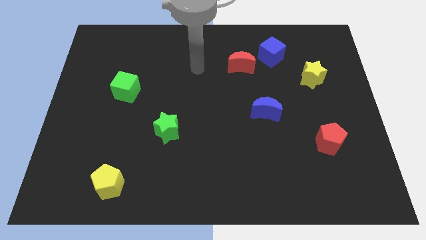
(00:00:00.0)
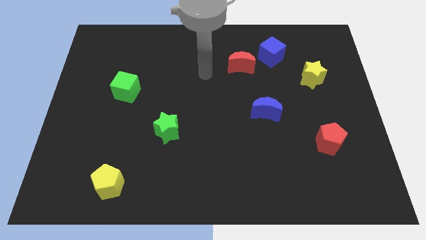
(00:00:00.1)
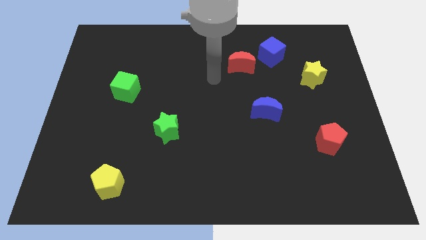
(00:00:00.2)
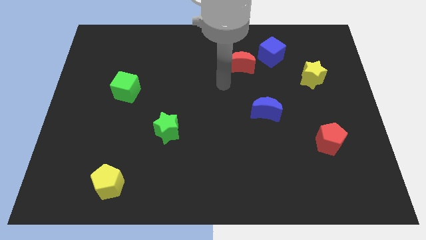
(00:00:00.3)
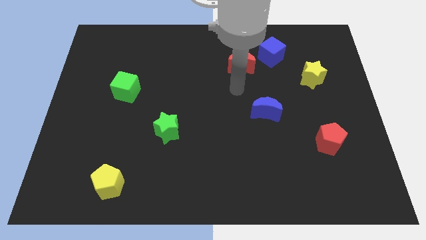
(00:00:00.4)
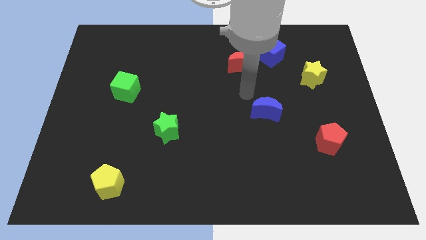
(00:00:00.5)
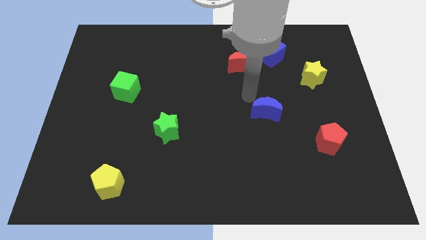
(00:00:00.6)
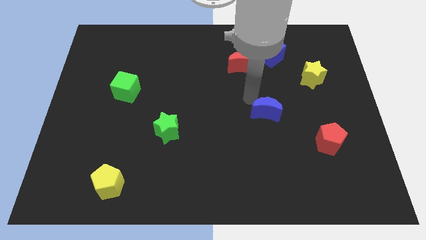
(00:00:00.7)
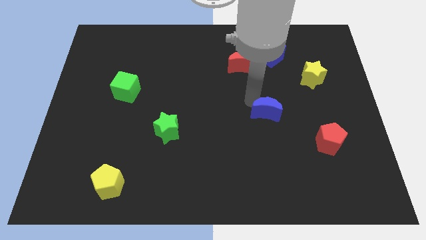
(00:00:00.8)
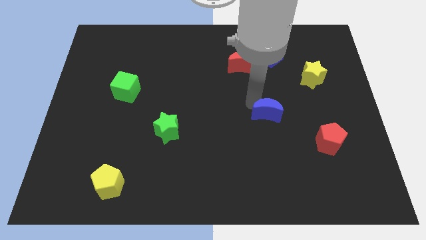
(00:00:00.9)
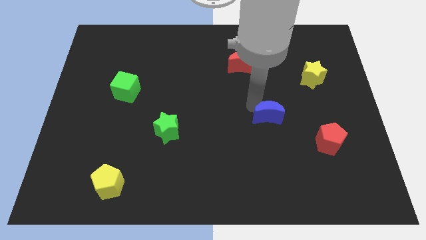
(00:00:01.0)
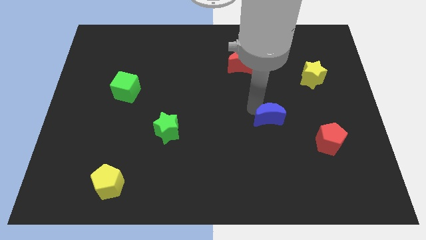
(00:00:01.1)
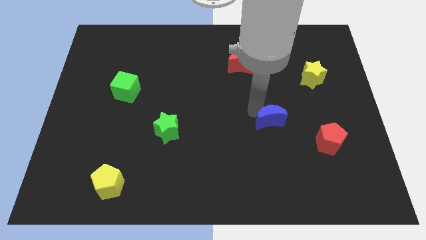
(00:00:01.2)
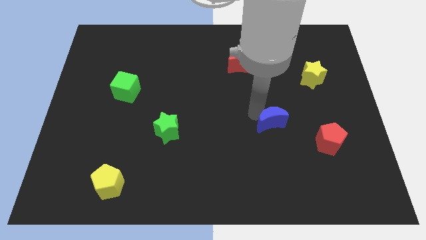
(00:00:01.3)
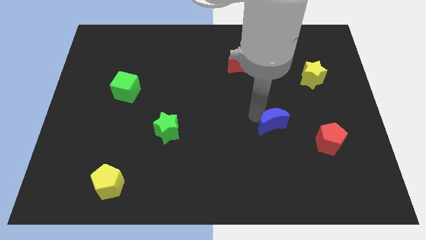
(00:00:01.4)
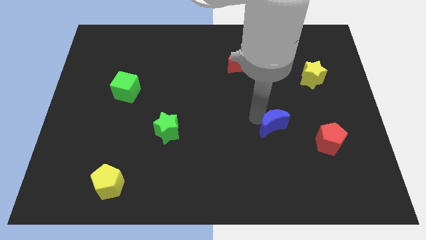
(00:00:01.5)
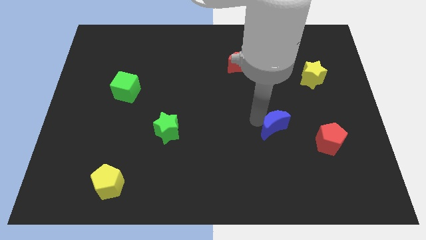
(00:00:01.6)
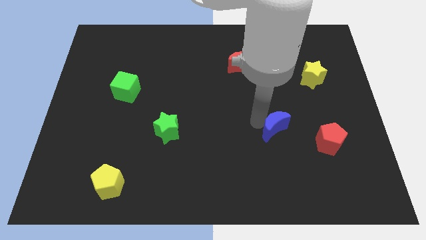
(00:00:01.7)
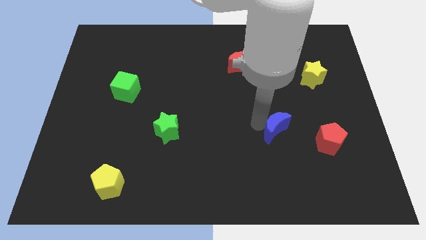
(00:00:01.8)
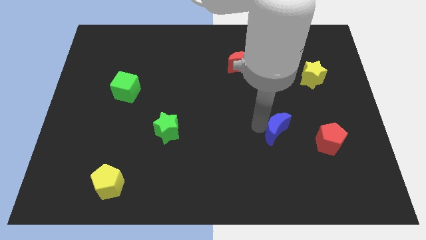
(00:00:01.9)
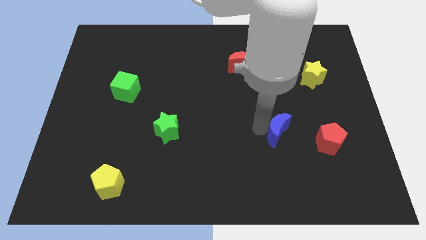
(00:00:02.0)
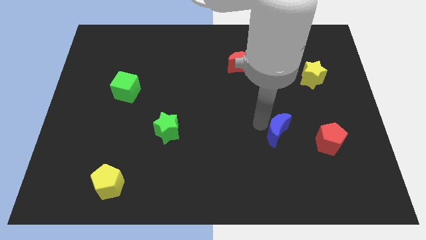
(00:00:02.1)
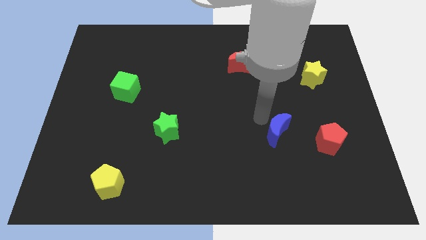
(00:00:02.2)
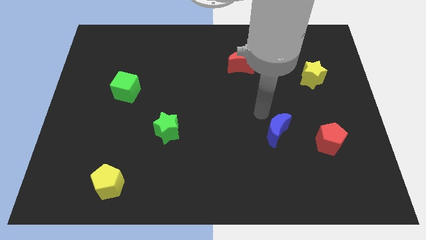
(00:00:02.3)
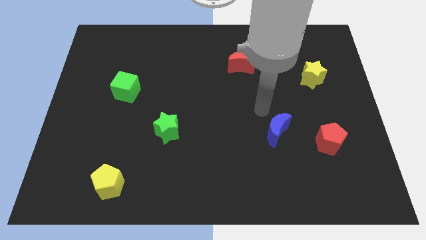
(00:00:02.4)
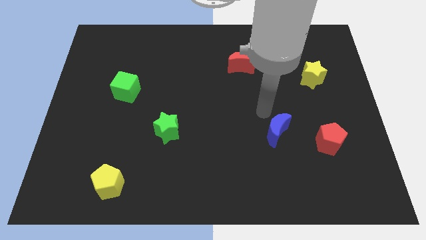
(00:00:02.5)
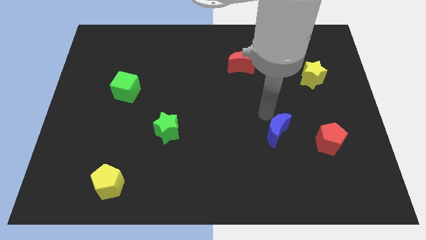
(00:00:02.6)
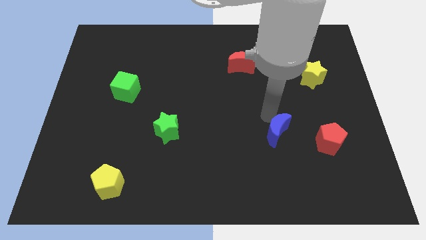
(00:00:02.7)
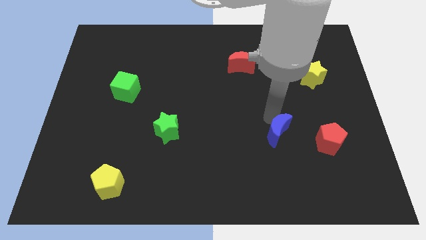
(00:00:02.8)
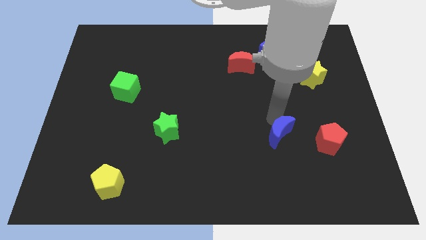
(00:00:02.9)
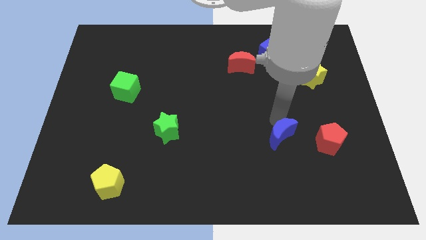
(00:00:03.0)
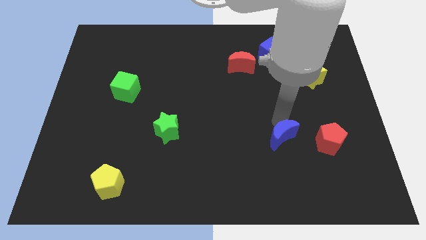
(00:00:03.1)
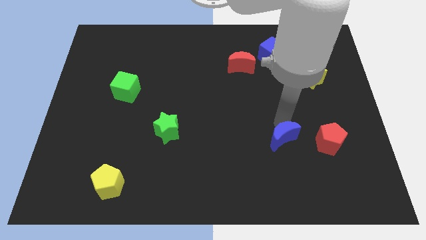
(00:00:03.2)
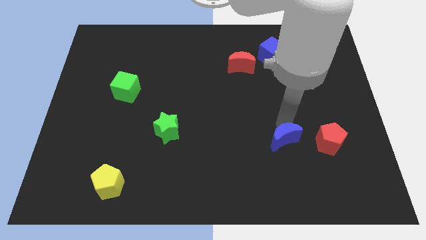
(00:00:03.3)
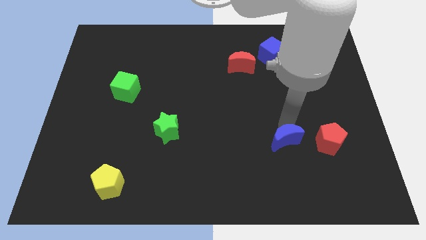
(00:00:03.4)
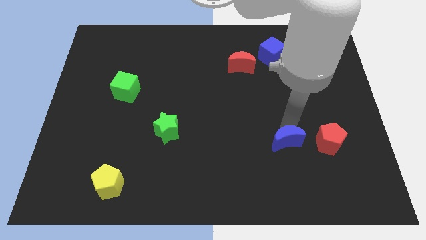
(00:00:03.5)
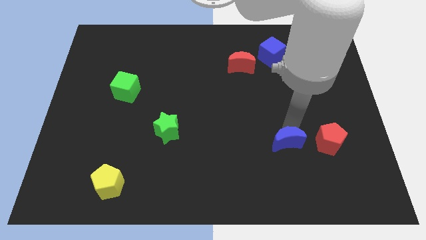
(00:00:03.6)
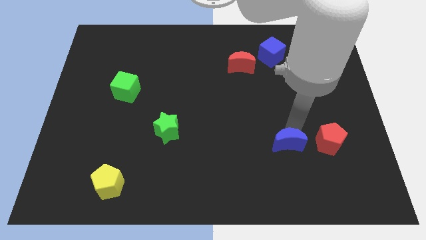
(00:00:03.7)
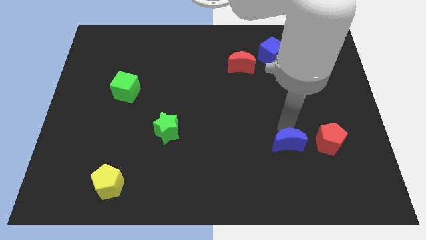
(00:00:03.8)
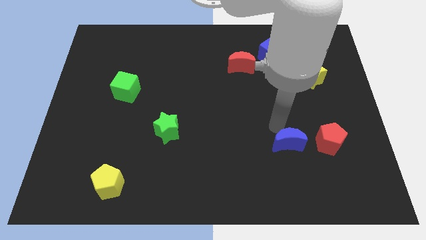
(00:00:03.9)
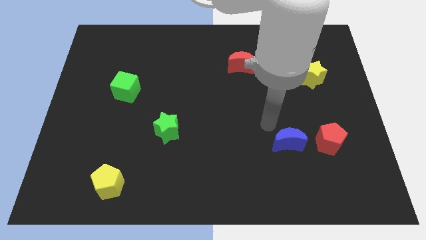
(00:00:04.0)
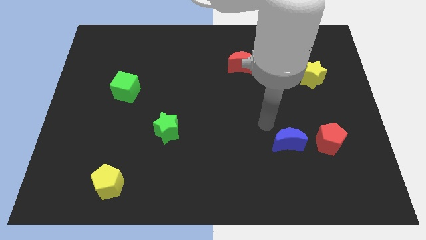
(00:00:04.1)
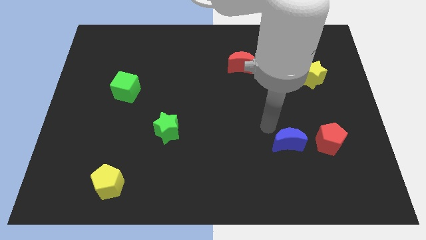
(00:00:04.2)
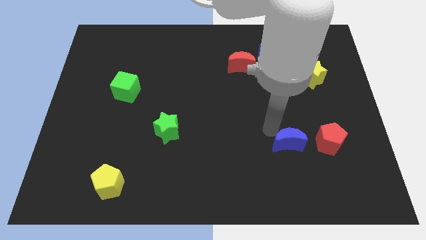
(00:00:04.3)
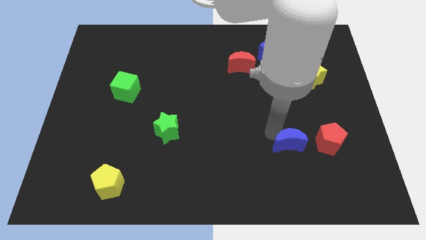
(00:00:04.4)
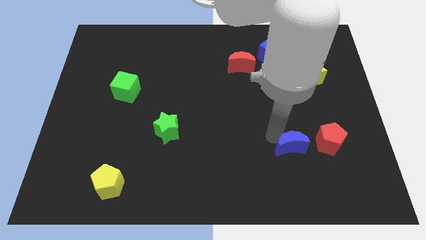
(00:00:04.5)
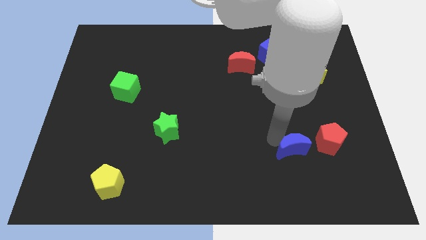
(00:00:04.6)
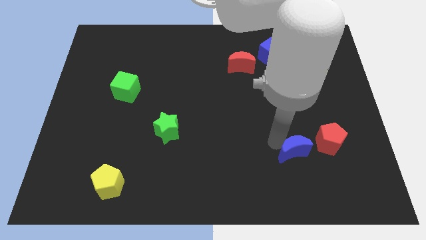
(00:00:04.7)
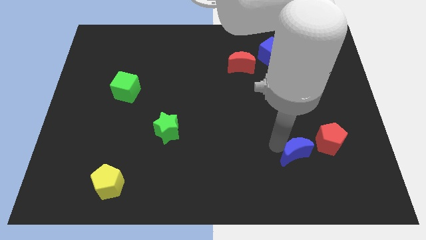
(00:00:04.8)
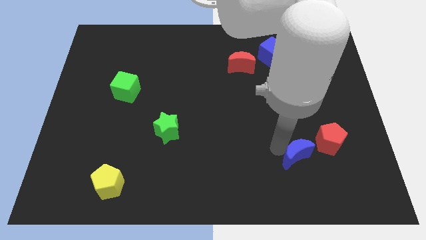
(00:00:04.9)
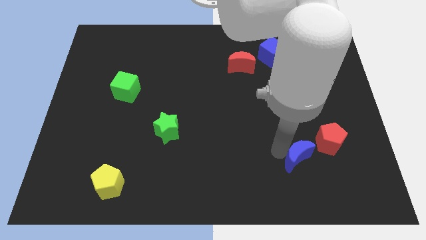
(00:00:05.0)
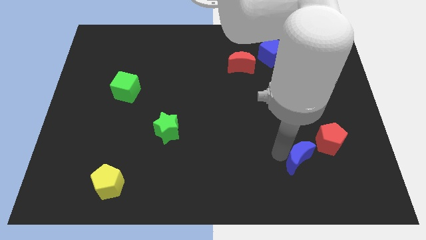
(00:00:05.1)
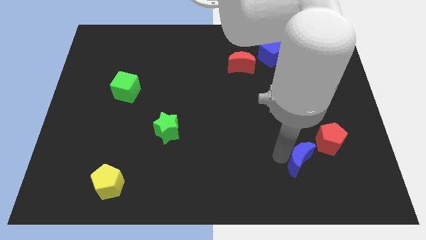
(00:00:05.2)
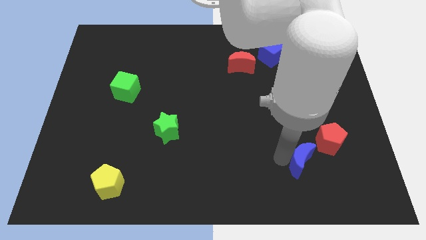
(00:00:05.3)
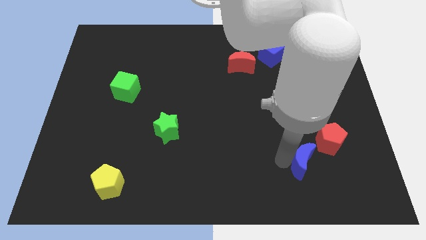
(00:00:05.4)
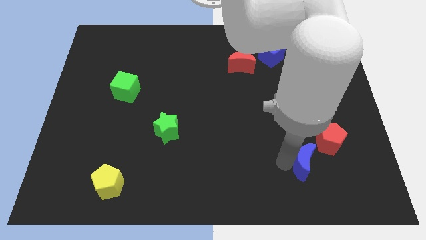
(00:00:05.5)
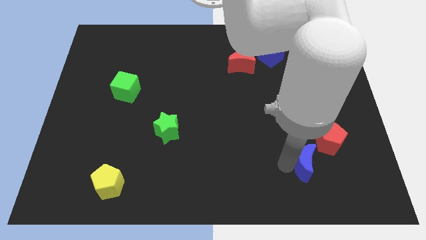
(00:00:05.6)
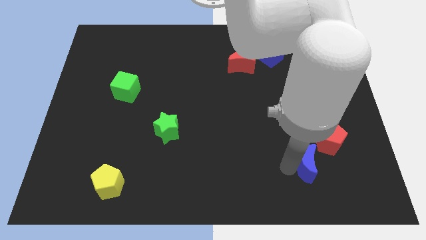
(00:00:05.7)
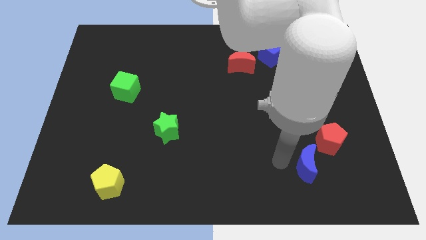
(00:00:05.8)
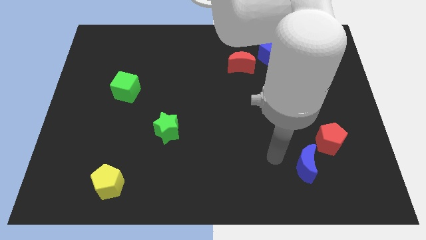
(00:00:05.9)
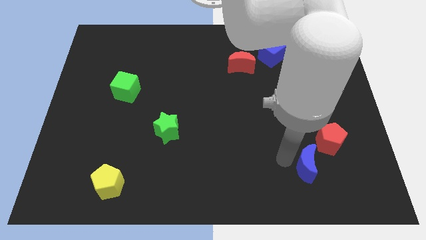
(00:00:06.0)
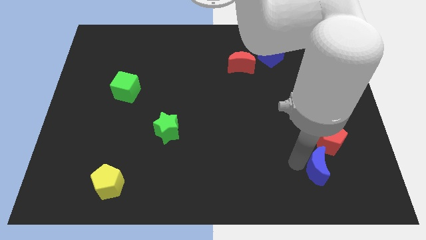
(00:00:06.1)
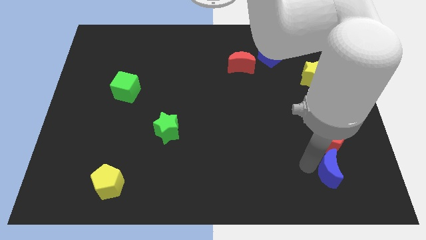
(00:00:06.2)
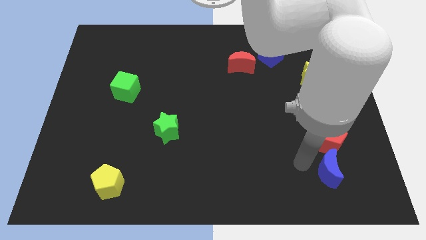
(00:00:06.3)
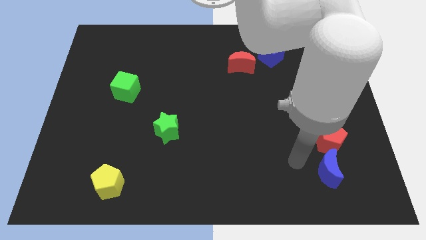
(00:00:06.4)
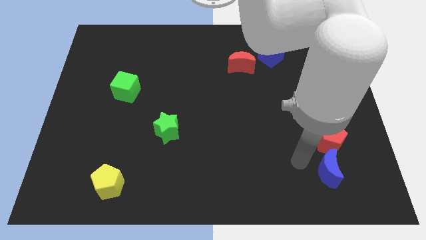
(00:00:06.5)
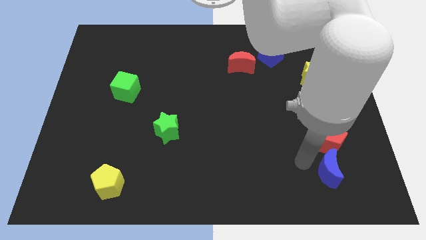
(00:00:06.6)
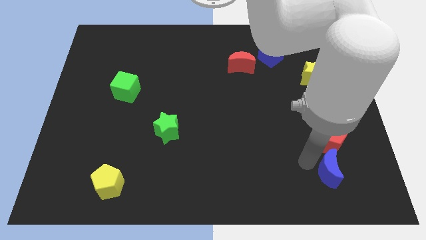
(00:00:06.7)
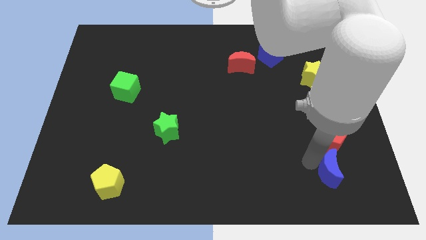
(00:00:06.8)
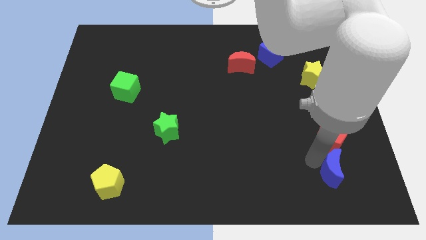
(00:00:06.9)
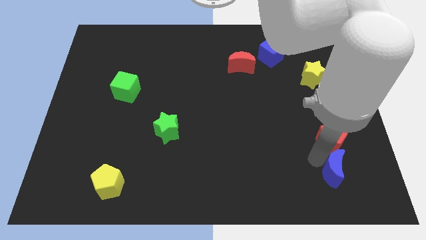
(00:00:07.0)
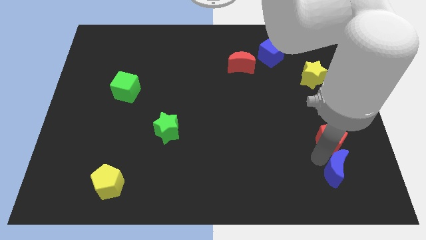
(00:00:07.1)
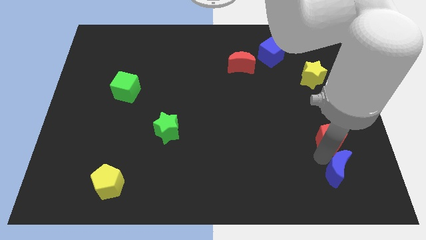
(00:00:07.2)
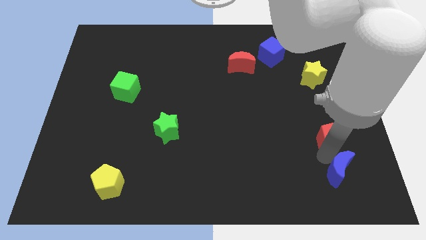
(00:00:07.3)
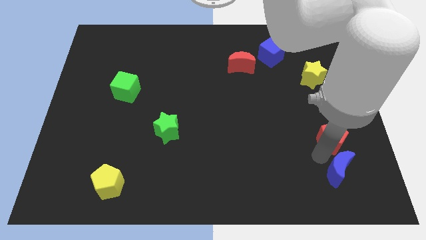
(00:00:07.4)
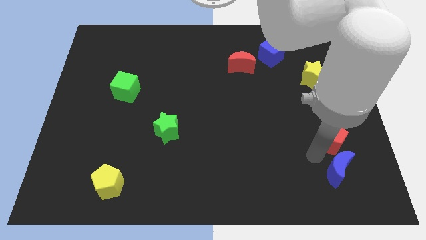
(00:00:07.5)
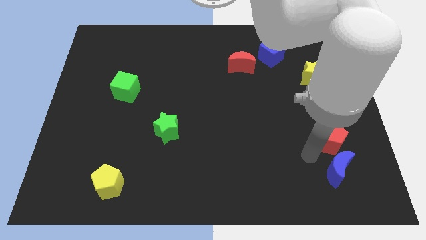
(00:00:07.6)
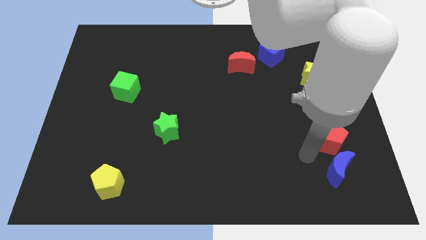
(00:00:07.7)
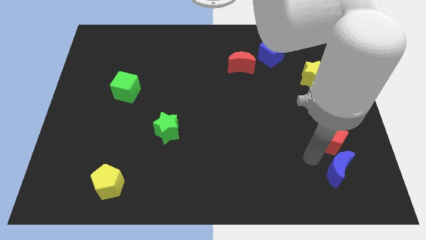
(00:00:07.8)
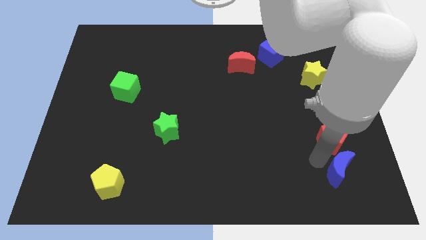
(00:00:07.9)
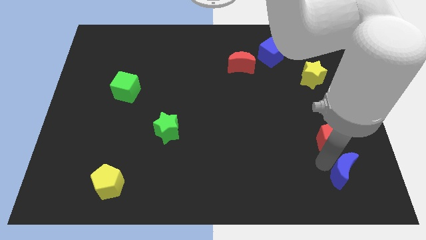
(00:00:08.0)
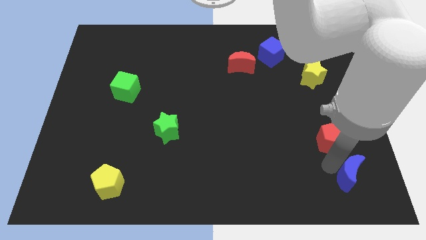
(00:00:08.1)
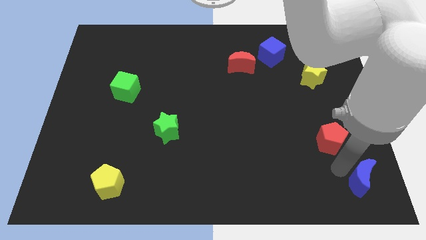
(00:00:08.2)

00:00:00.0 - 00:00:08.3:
put the blue moon to the lower right corner
